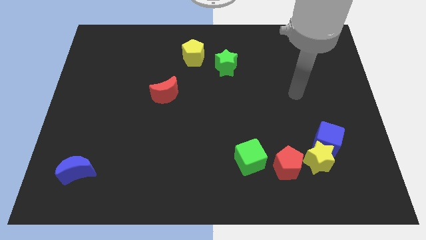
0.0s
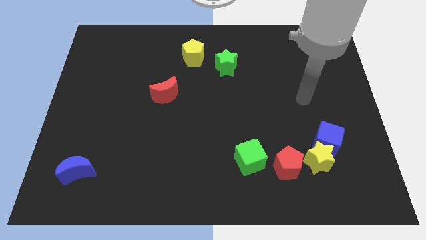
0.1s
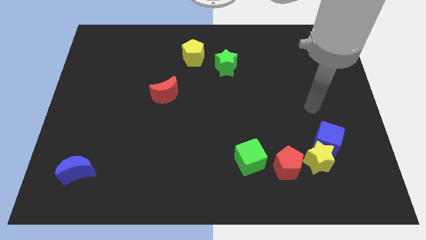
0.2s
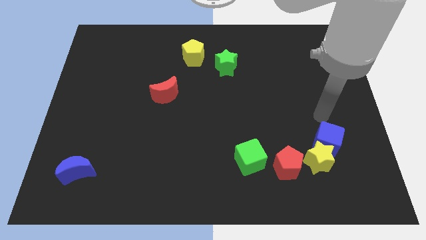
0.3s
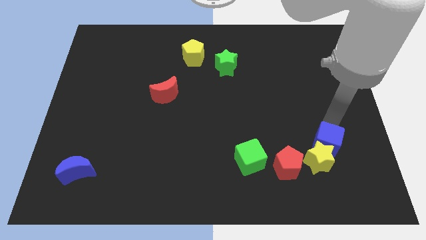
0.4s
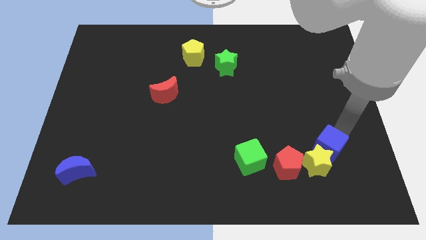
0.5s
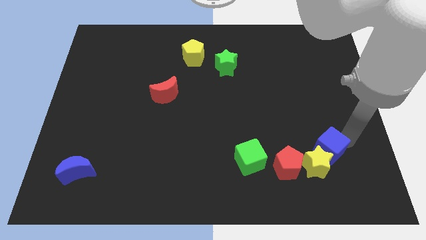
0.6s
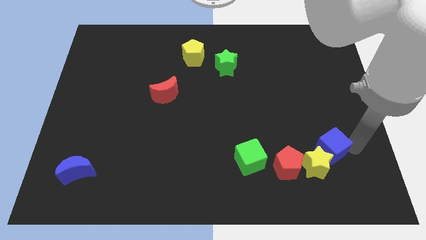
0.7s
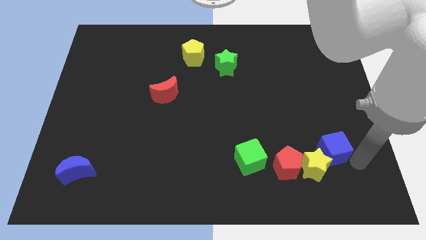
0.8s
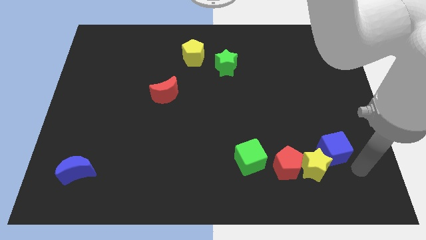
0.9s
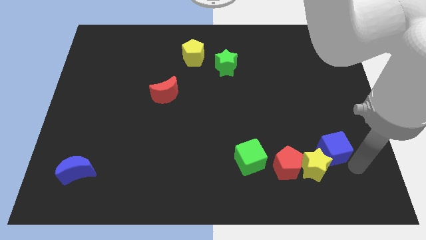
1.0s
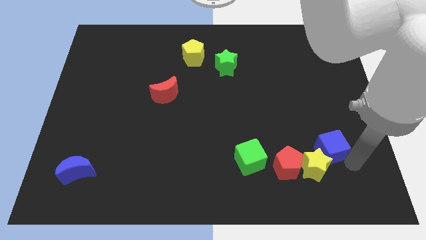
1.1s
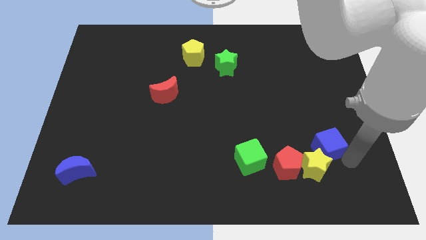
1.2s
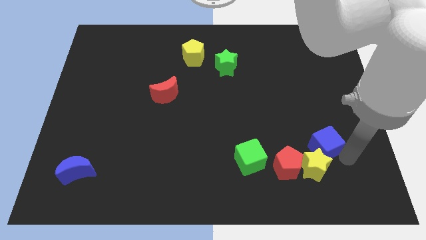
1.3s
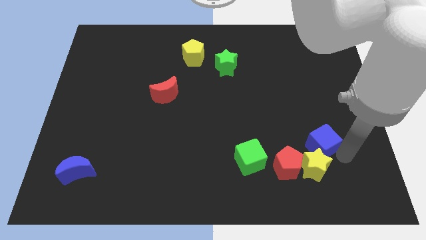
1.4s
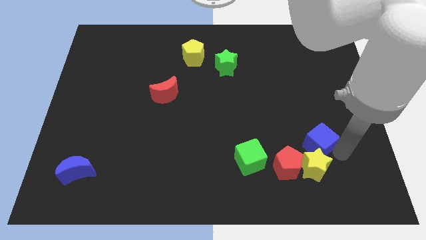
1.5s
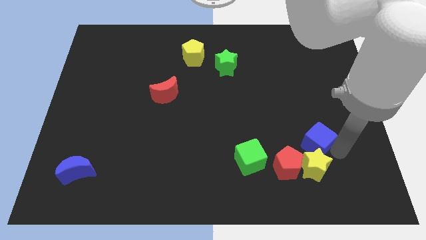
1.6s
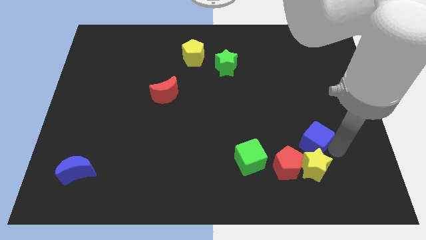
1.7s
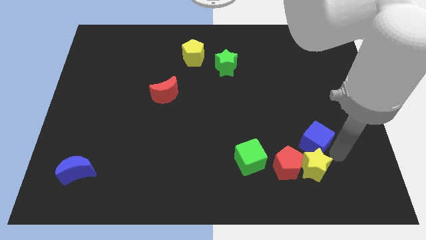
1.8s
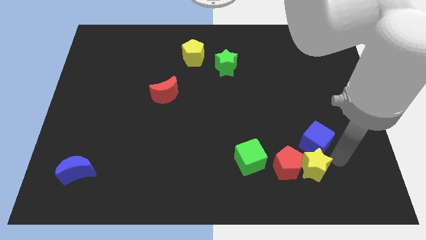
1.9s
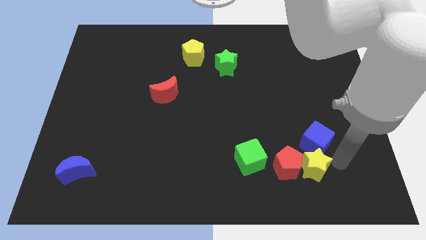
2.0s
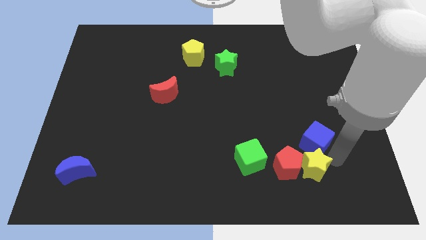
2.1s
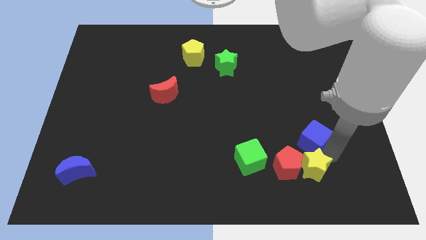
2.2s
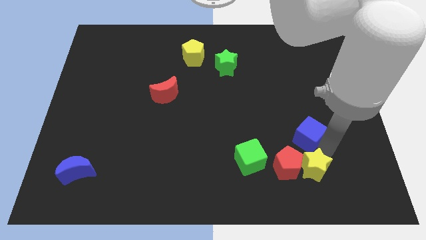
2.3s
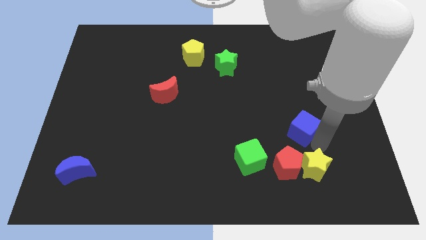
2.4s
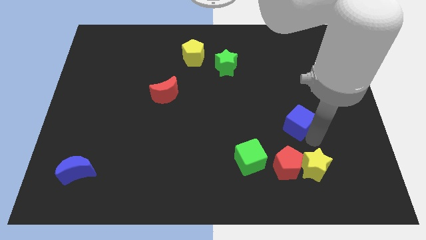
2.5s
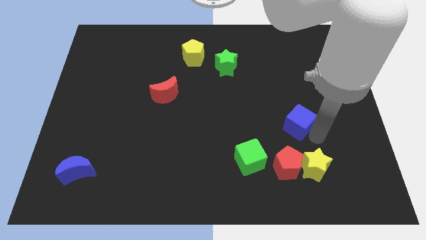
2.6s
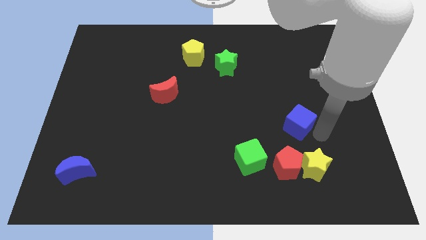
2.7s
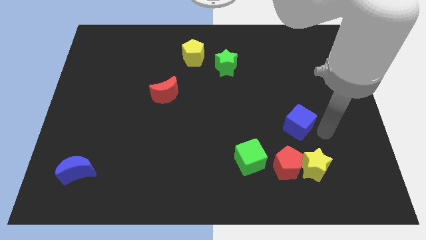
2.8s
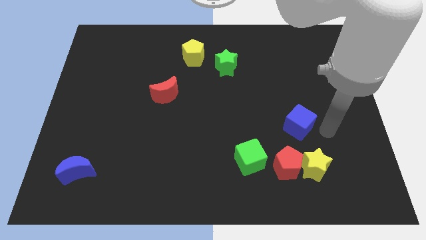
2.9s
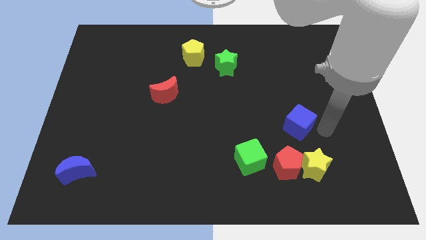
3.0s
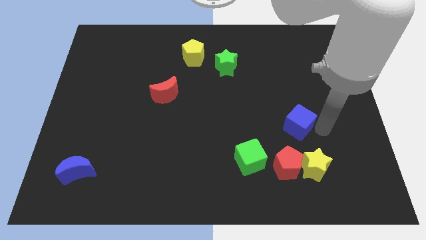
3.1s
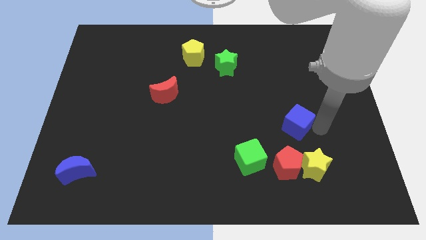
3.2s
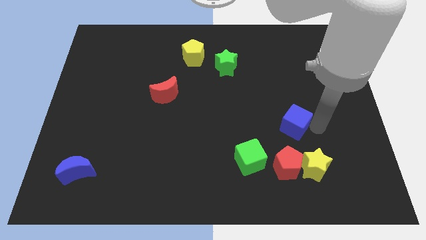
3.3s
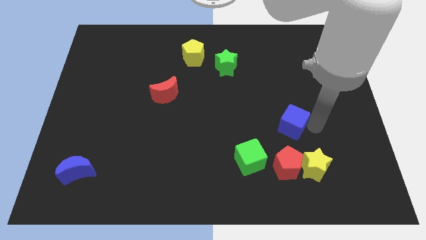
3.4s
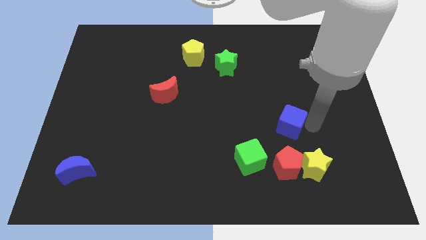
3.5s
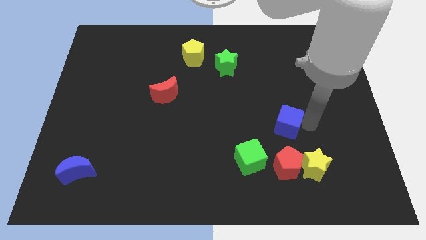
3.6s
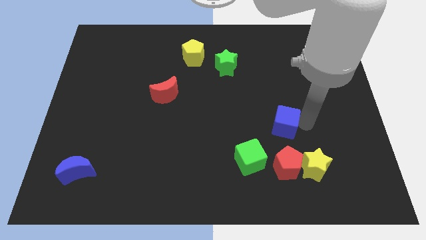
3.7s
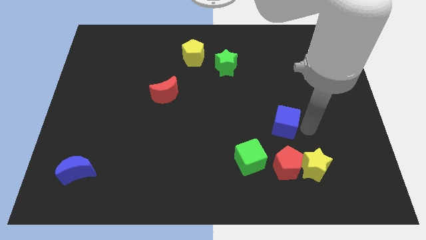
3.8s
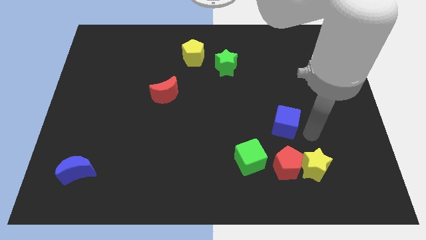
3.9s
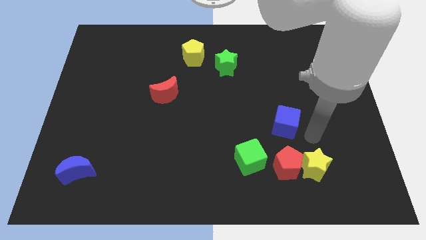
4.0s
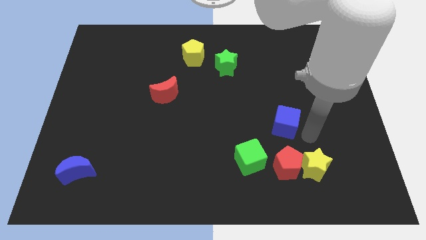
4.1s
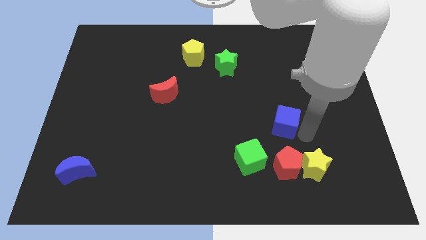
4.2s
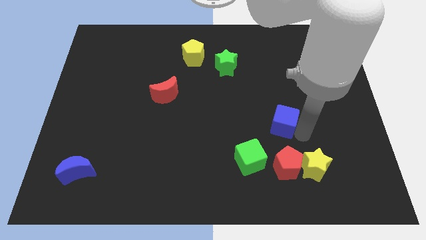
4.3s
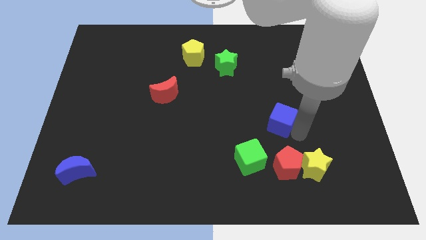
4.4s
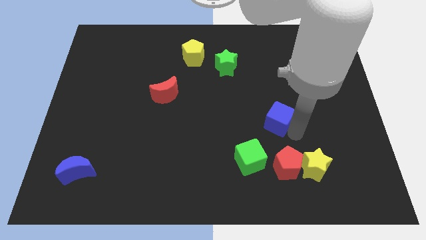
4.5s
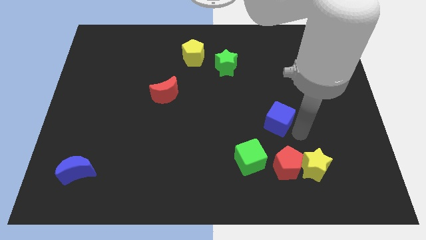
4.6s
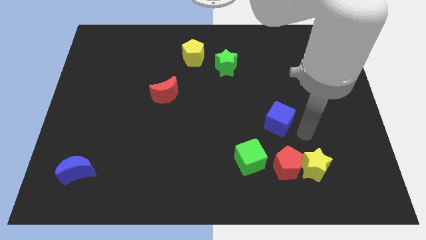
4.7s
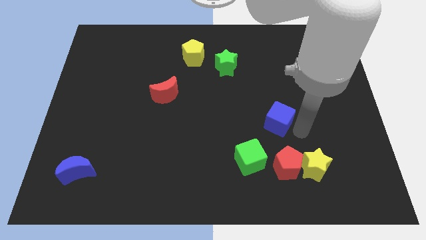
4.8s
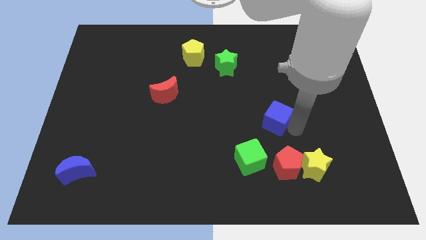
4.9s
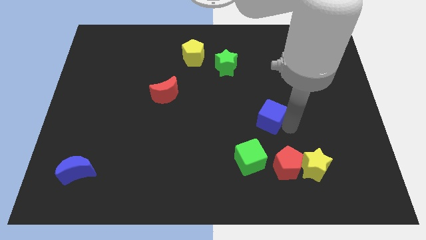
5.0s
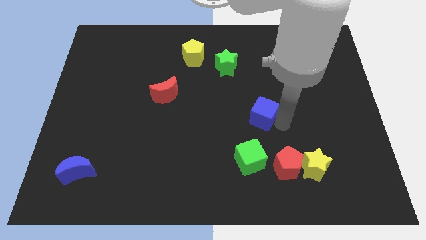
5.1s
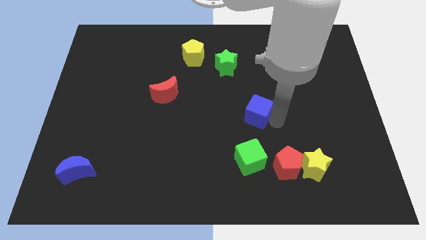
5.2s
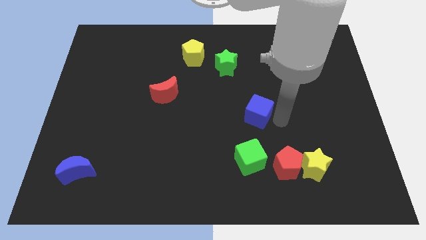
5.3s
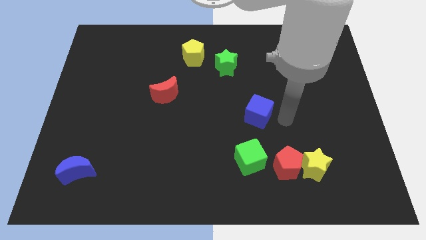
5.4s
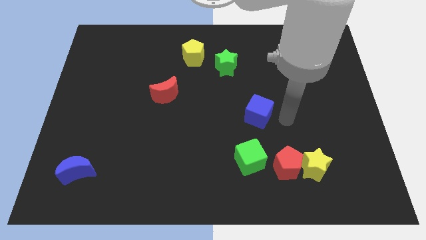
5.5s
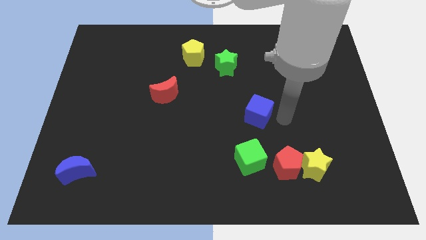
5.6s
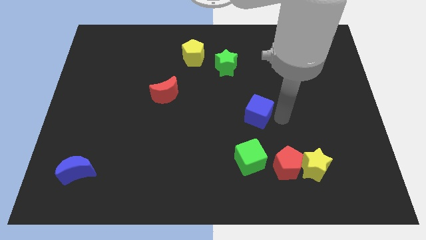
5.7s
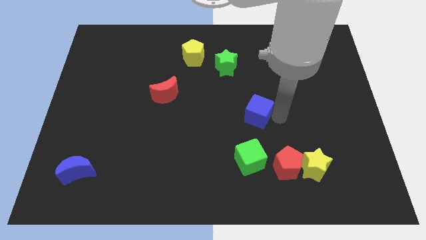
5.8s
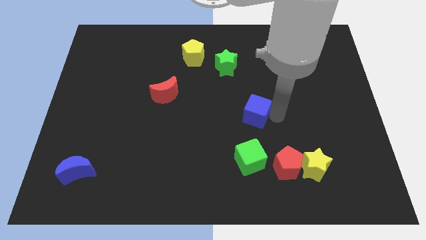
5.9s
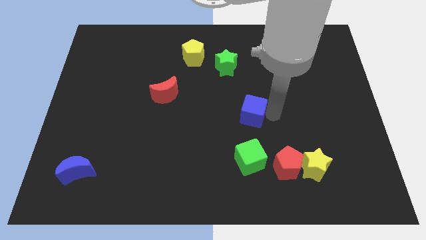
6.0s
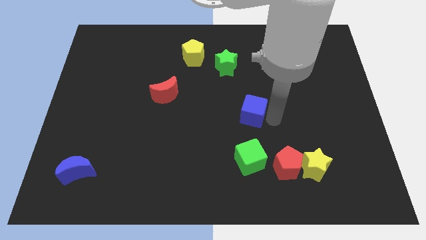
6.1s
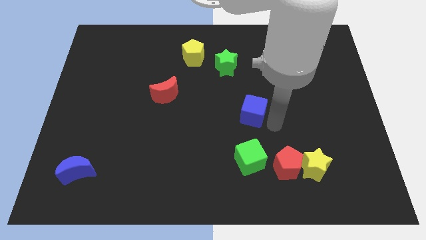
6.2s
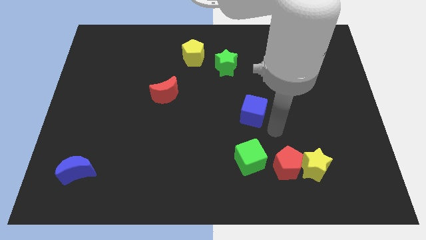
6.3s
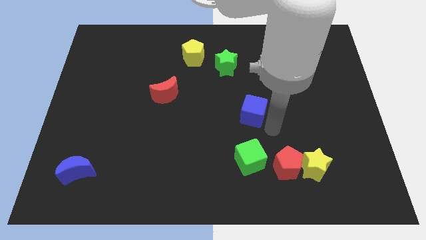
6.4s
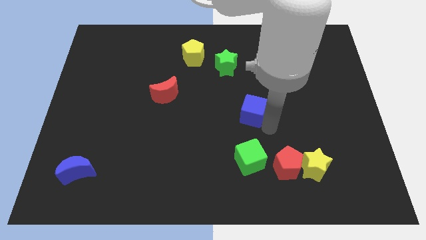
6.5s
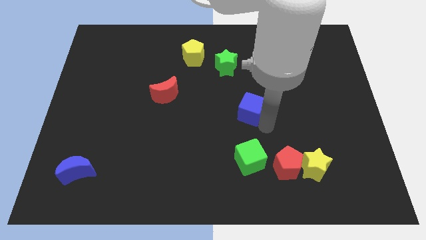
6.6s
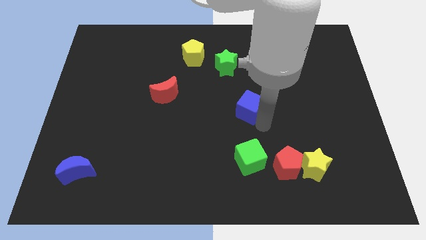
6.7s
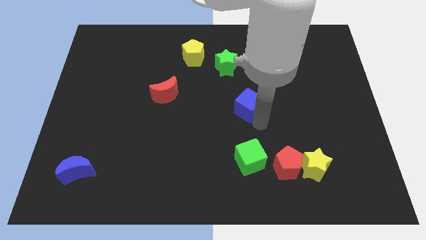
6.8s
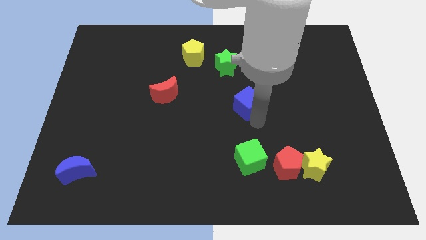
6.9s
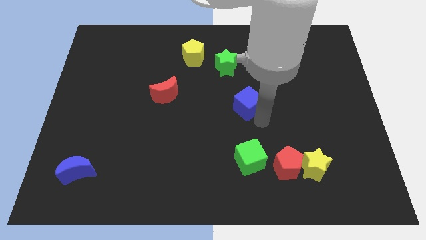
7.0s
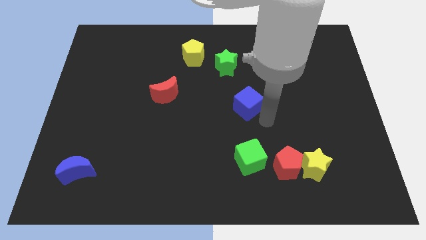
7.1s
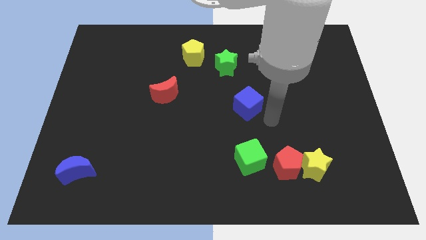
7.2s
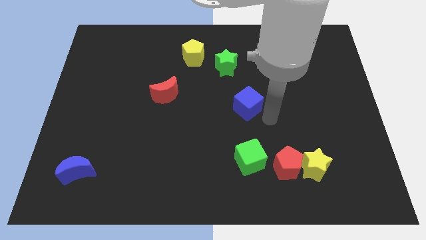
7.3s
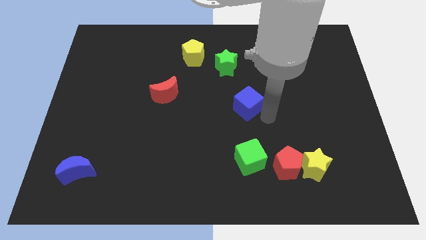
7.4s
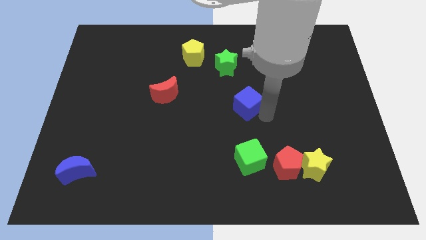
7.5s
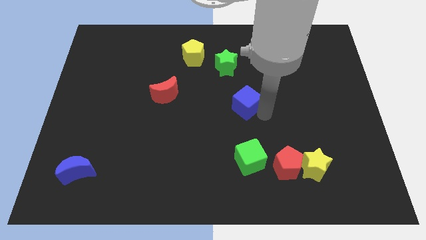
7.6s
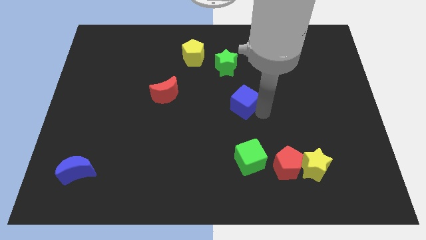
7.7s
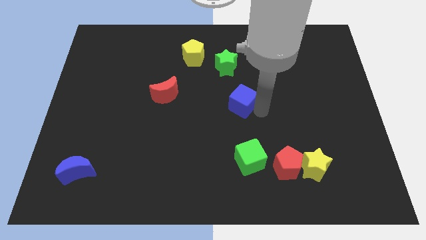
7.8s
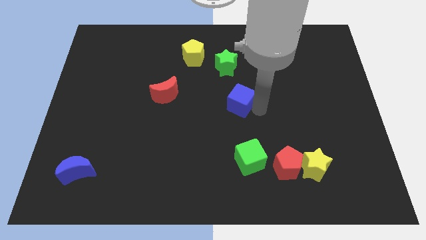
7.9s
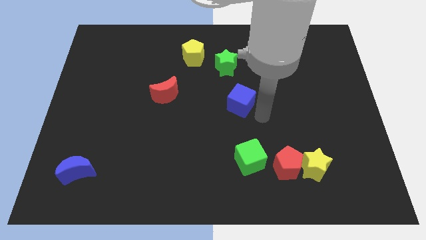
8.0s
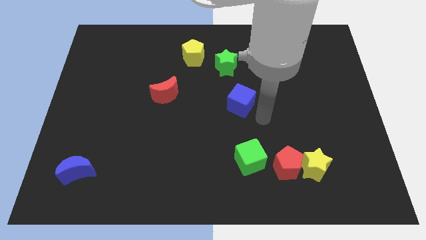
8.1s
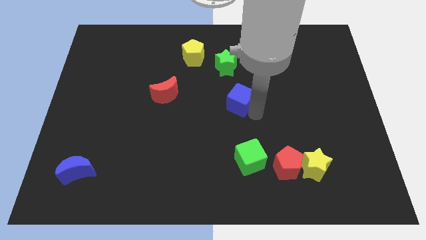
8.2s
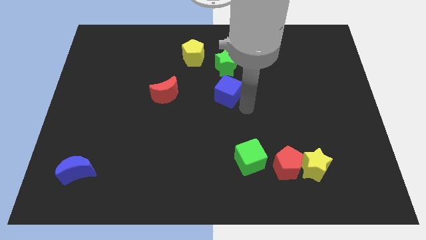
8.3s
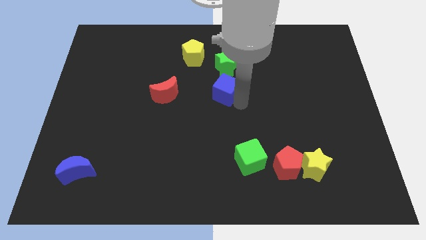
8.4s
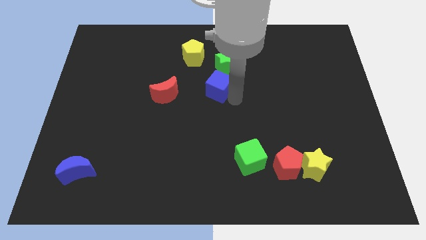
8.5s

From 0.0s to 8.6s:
push the blue cube to the bottom left of the green star
